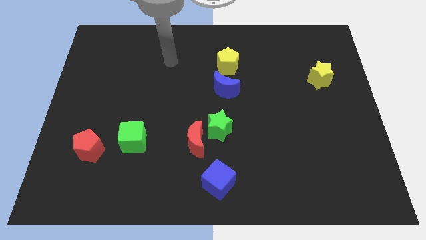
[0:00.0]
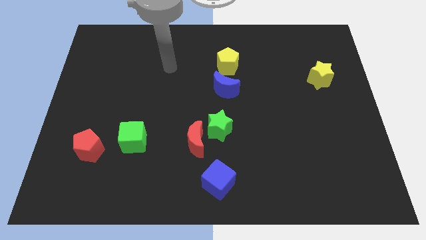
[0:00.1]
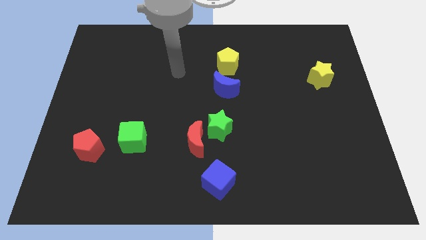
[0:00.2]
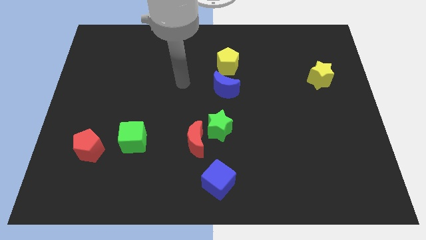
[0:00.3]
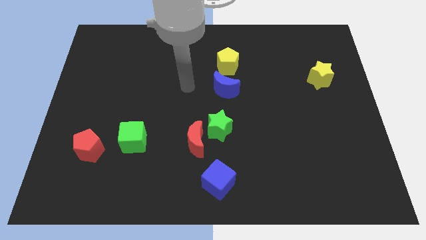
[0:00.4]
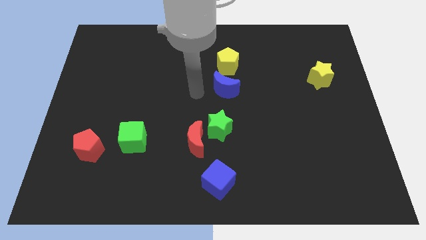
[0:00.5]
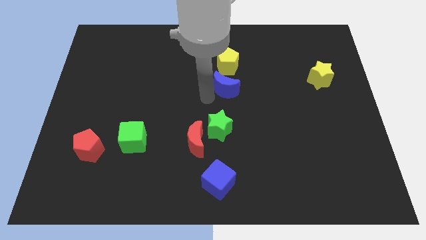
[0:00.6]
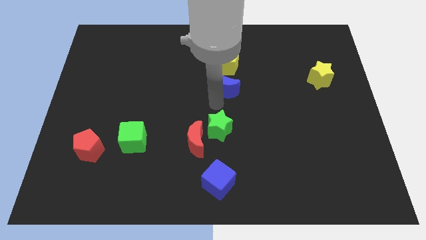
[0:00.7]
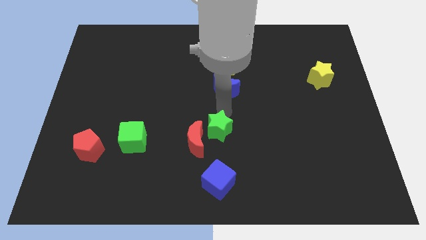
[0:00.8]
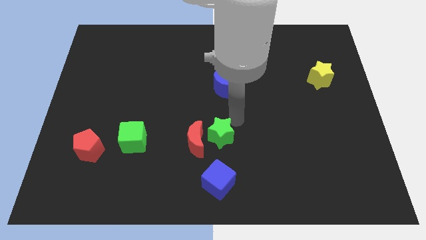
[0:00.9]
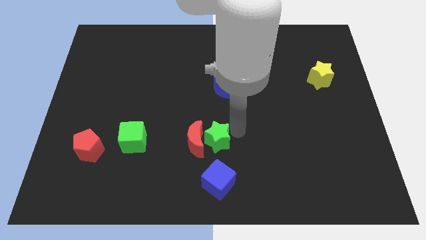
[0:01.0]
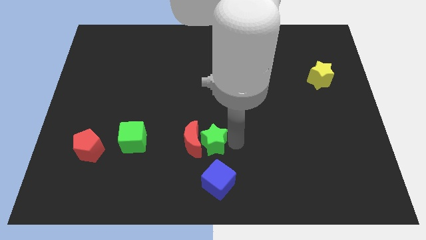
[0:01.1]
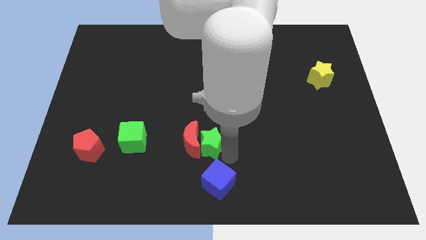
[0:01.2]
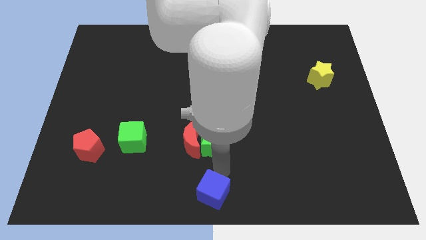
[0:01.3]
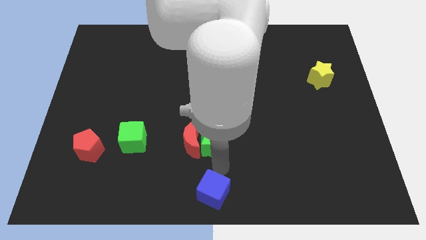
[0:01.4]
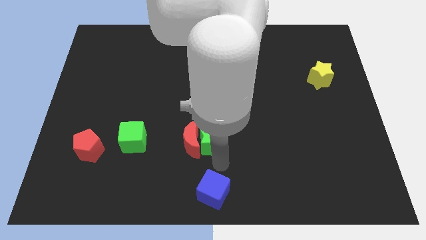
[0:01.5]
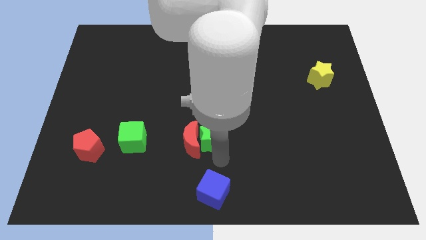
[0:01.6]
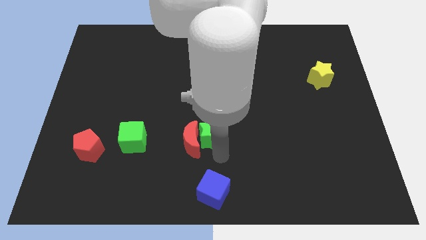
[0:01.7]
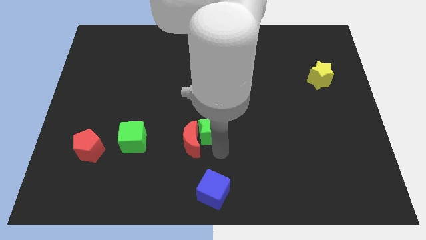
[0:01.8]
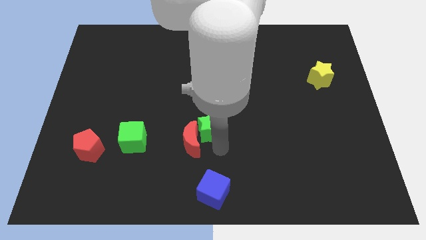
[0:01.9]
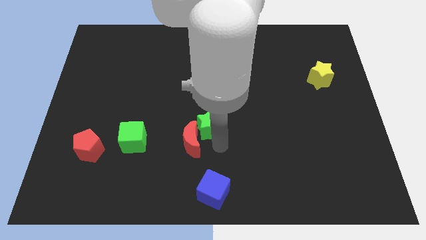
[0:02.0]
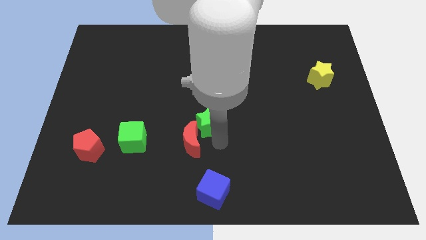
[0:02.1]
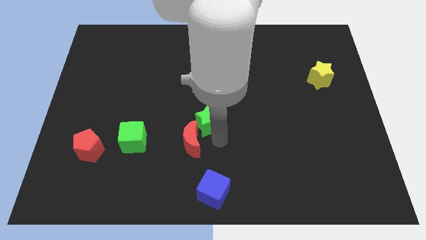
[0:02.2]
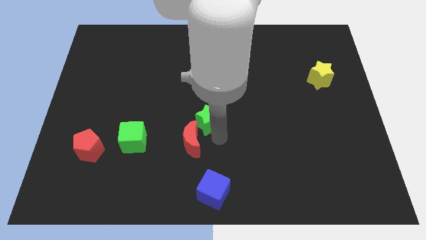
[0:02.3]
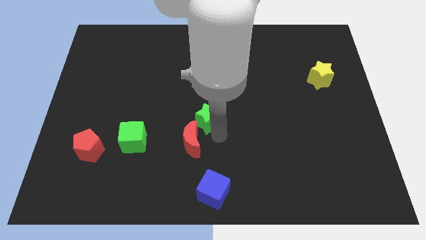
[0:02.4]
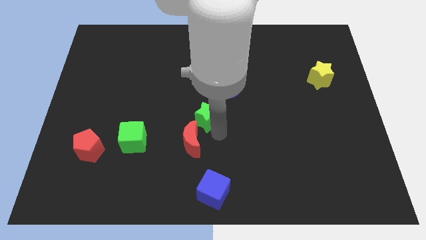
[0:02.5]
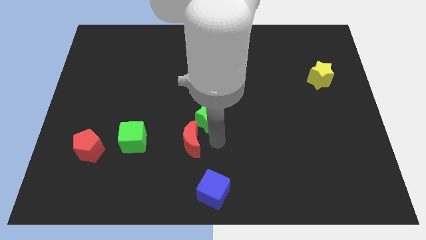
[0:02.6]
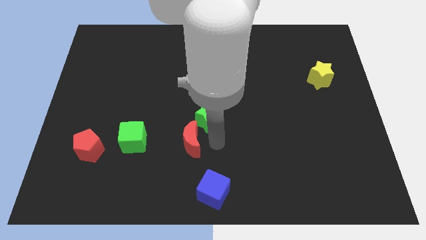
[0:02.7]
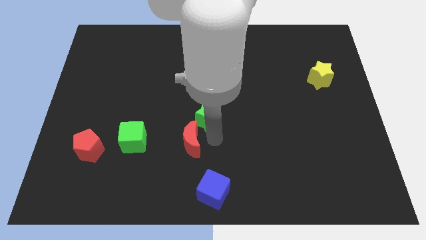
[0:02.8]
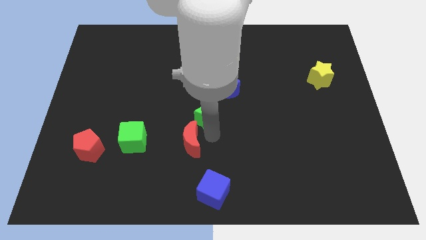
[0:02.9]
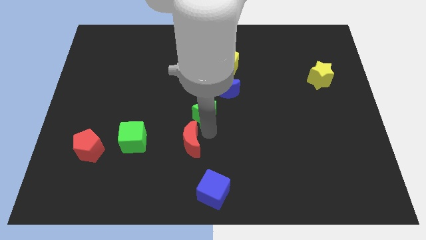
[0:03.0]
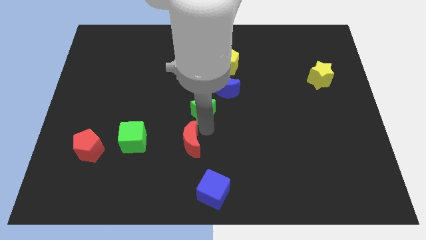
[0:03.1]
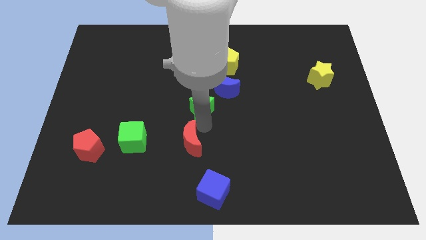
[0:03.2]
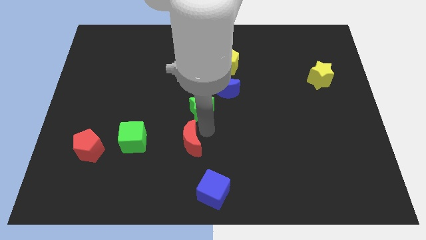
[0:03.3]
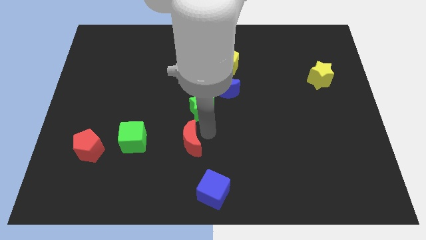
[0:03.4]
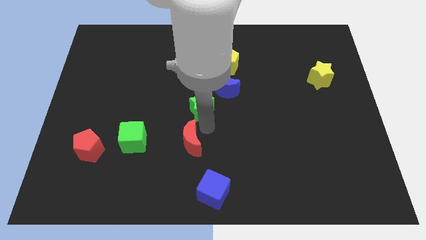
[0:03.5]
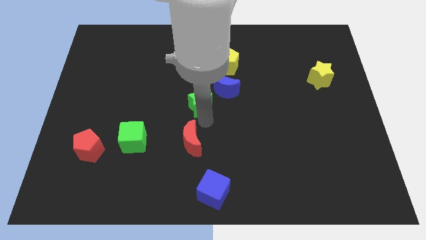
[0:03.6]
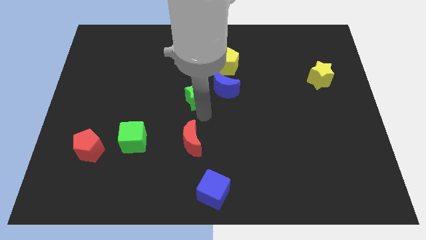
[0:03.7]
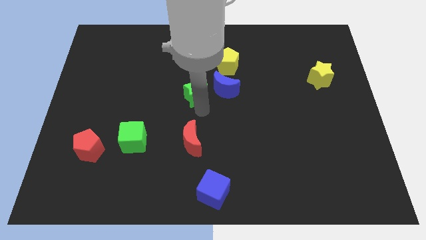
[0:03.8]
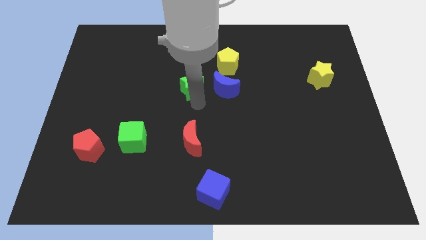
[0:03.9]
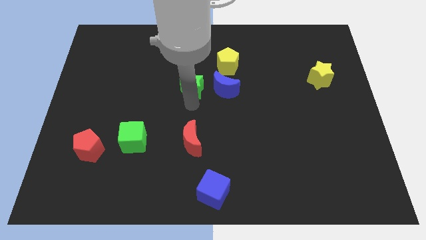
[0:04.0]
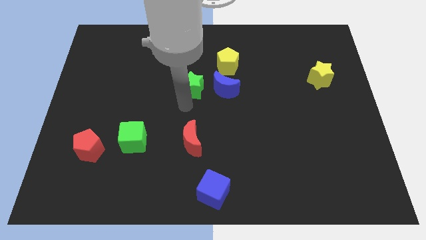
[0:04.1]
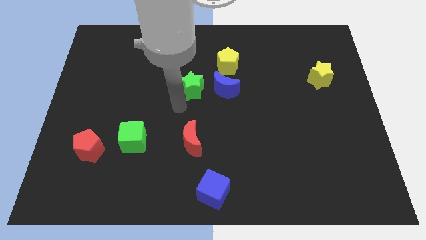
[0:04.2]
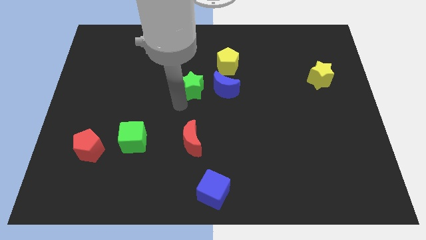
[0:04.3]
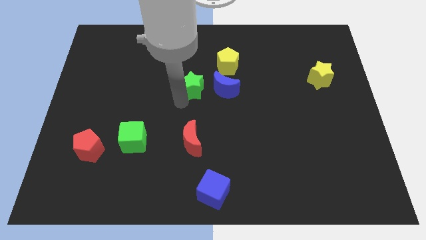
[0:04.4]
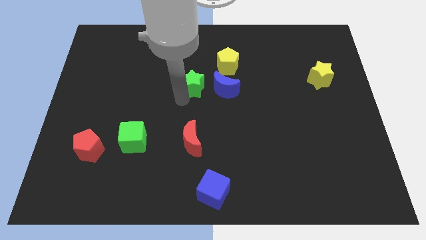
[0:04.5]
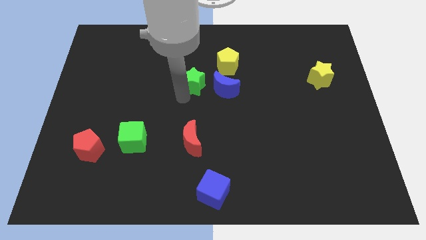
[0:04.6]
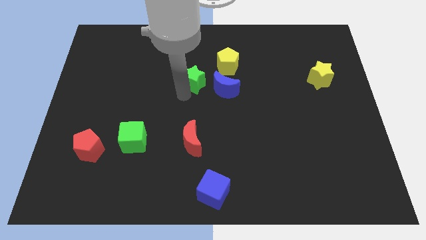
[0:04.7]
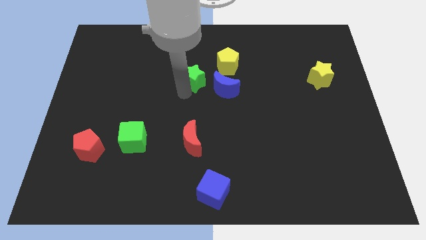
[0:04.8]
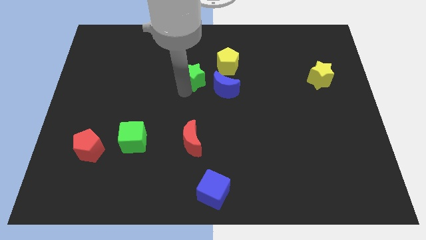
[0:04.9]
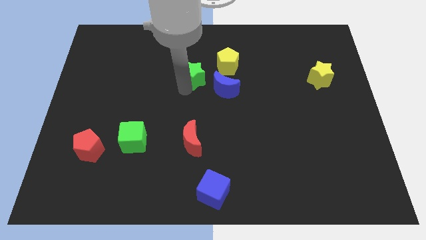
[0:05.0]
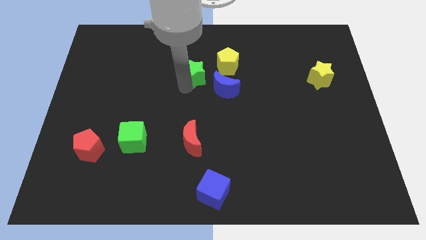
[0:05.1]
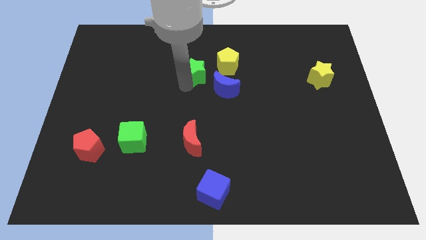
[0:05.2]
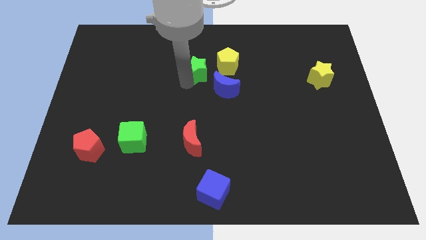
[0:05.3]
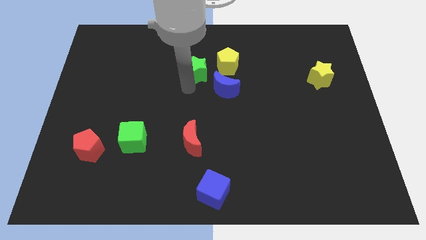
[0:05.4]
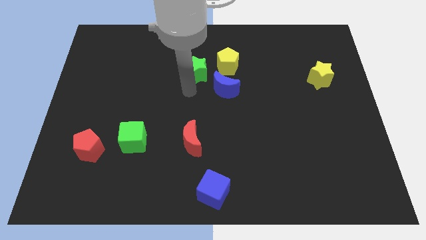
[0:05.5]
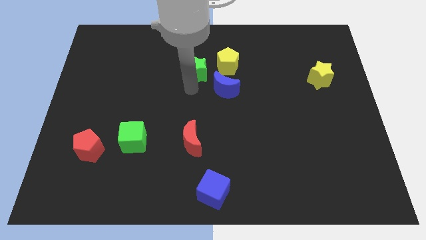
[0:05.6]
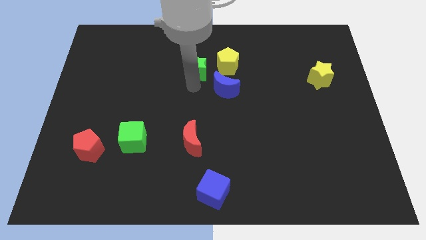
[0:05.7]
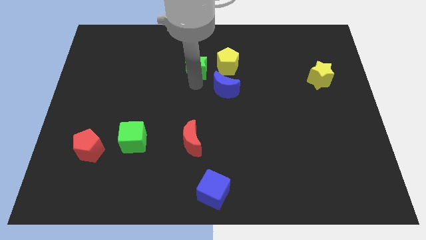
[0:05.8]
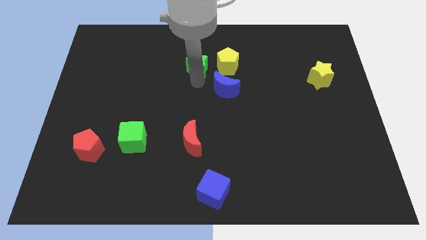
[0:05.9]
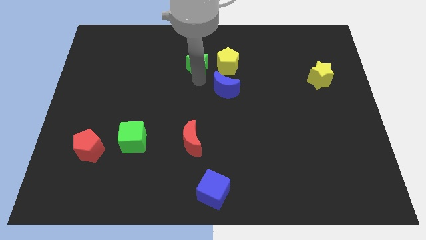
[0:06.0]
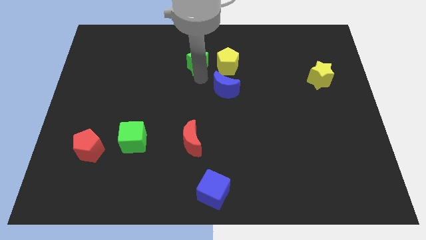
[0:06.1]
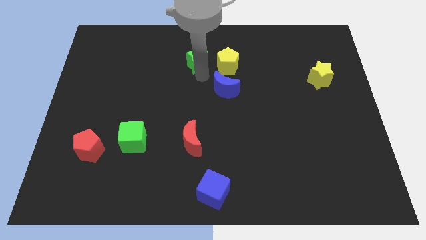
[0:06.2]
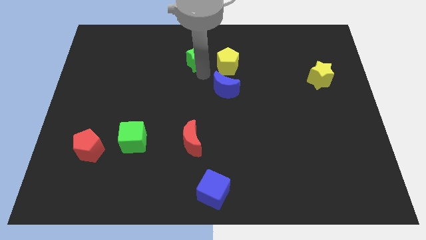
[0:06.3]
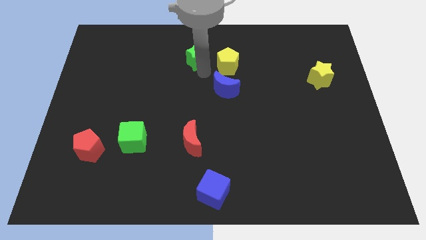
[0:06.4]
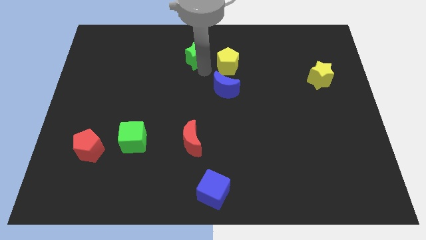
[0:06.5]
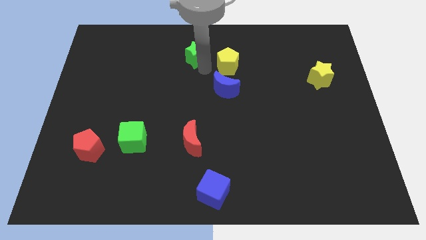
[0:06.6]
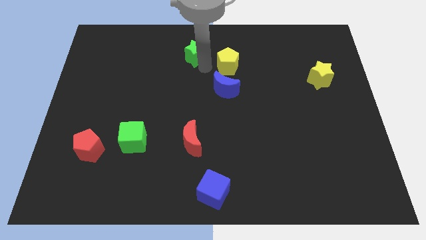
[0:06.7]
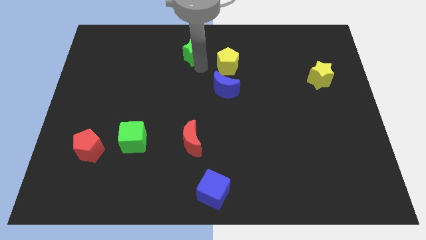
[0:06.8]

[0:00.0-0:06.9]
slide the green star to the top

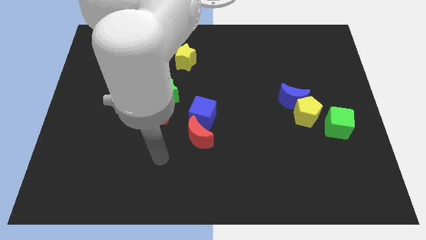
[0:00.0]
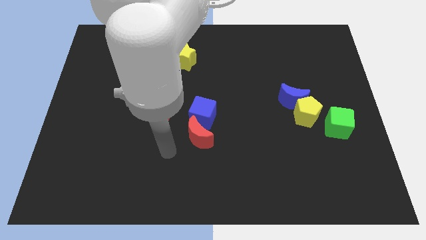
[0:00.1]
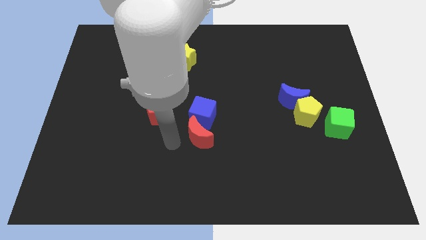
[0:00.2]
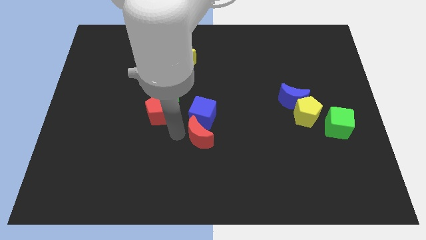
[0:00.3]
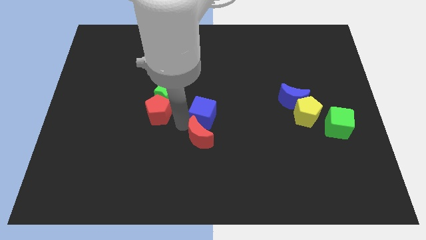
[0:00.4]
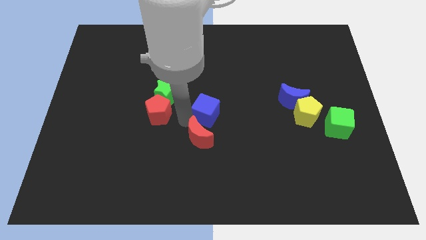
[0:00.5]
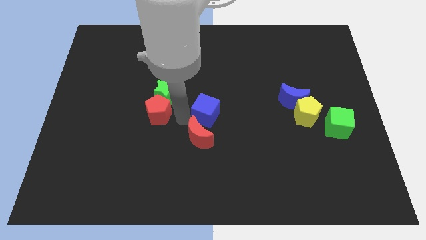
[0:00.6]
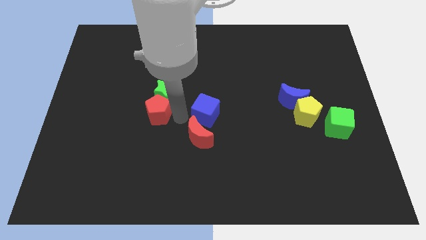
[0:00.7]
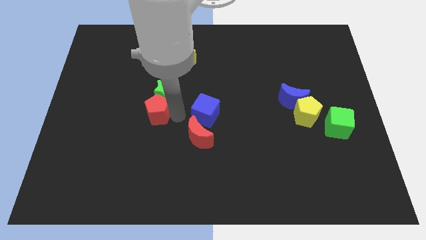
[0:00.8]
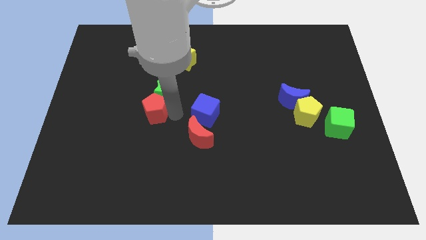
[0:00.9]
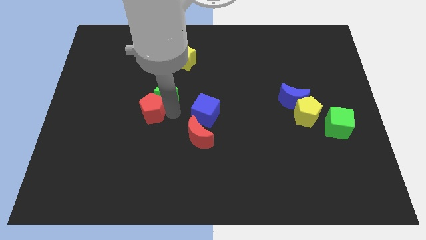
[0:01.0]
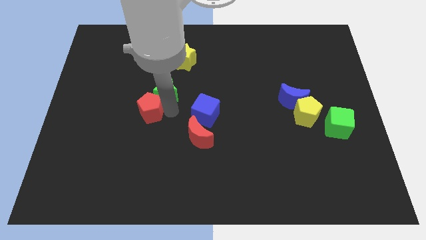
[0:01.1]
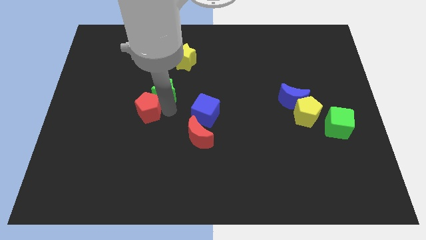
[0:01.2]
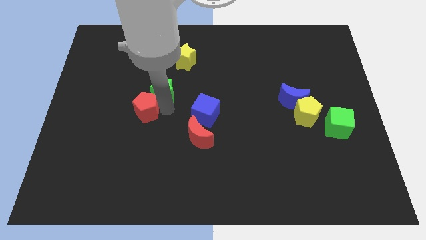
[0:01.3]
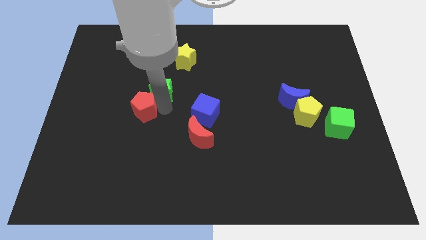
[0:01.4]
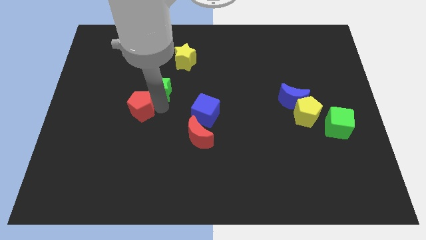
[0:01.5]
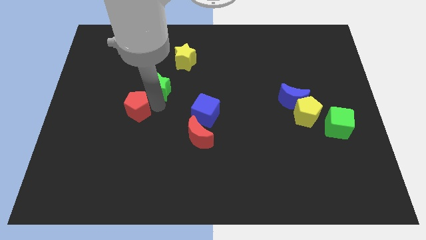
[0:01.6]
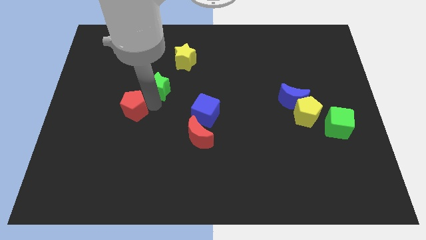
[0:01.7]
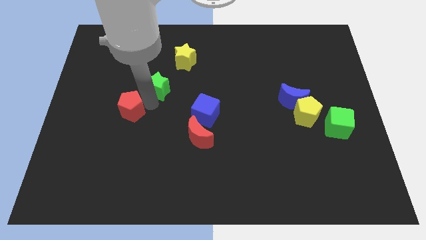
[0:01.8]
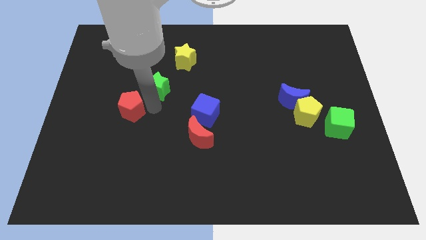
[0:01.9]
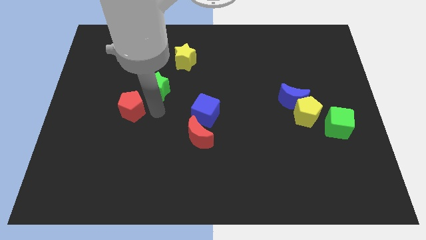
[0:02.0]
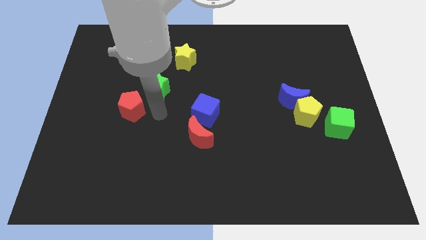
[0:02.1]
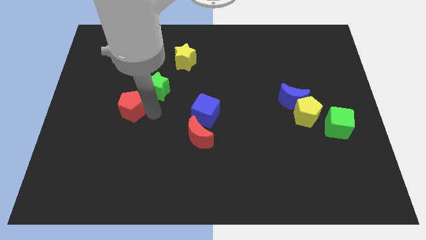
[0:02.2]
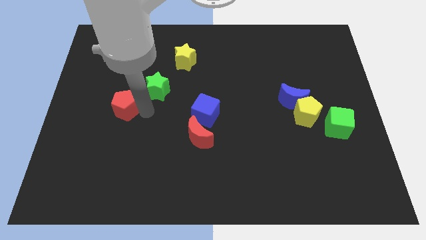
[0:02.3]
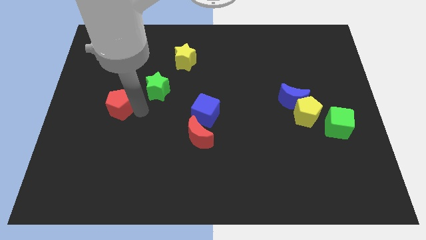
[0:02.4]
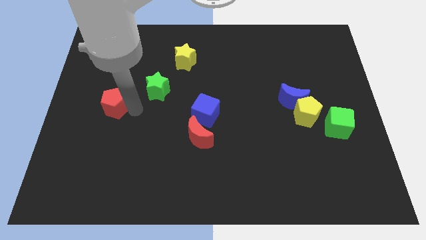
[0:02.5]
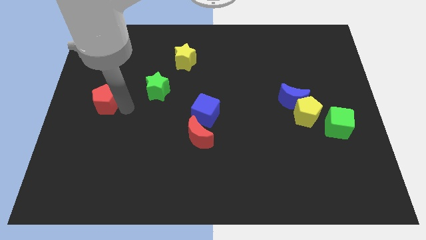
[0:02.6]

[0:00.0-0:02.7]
slide the red pentagon to the left side of the board
